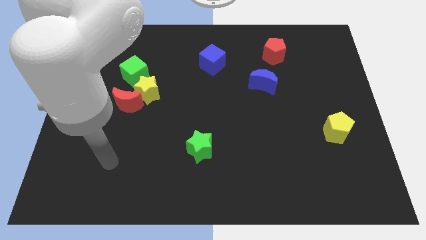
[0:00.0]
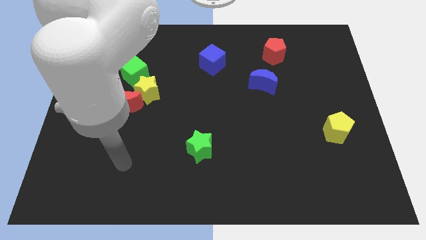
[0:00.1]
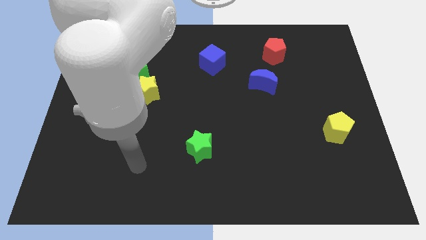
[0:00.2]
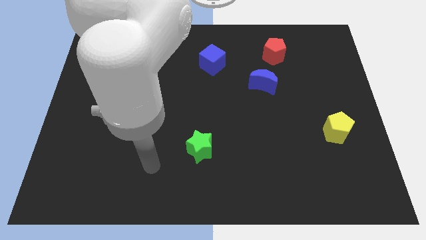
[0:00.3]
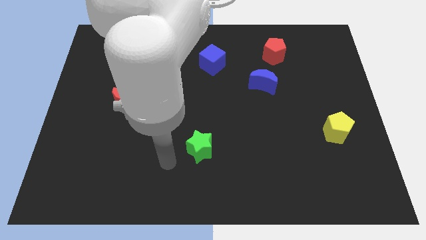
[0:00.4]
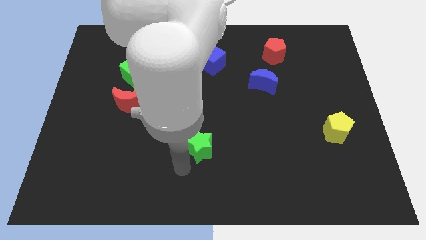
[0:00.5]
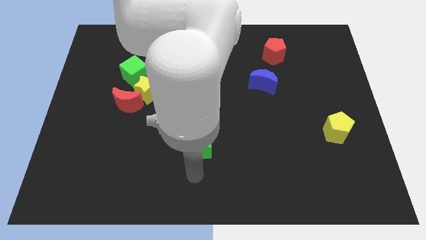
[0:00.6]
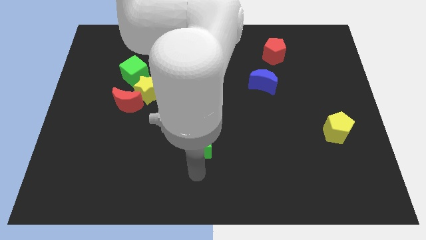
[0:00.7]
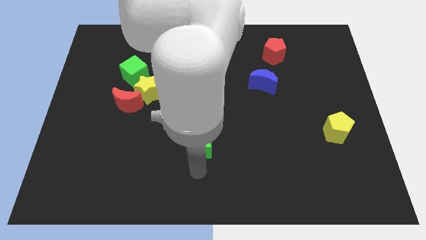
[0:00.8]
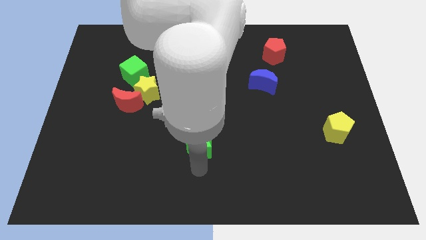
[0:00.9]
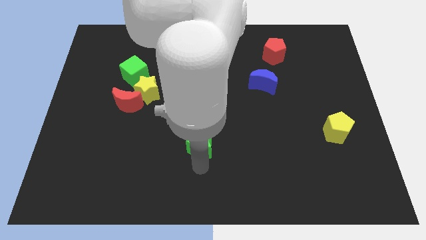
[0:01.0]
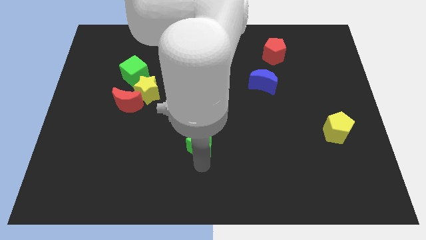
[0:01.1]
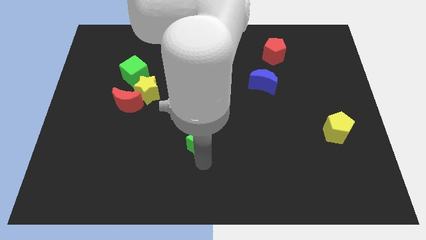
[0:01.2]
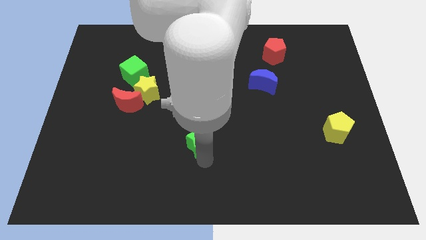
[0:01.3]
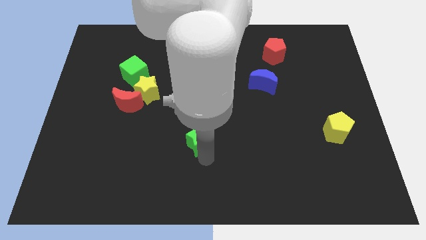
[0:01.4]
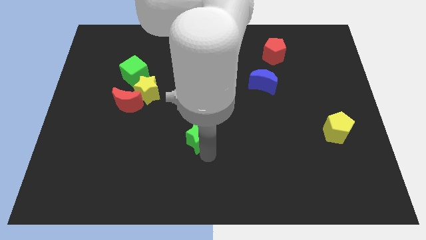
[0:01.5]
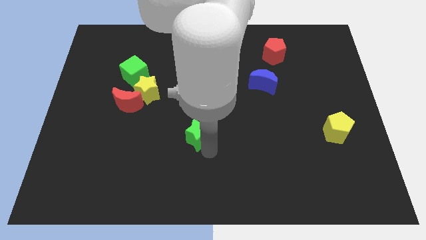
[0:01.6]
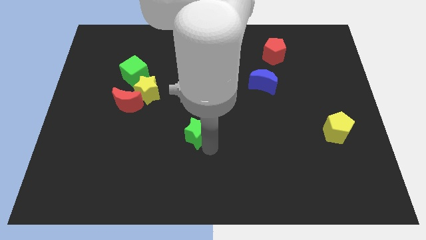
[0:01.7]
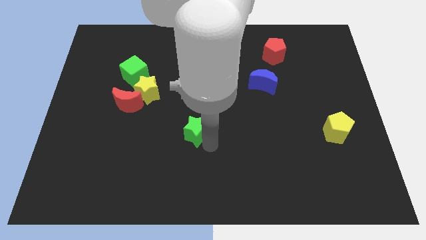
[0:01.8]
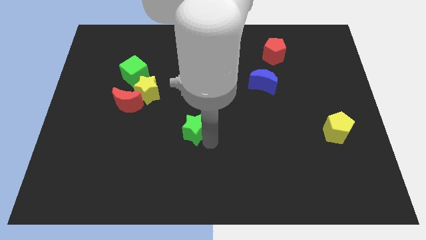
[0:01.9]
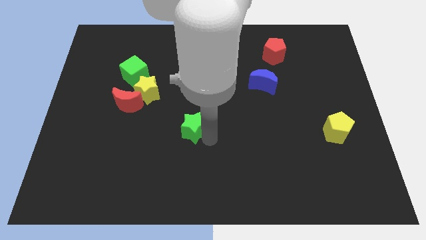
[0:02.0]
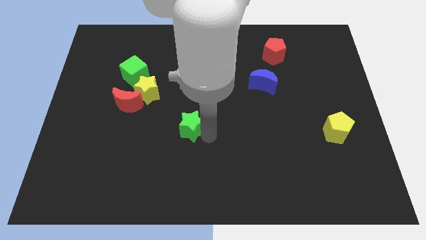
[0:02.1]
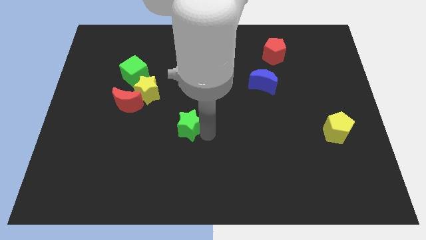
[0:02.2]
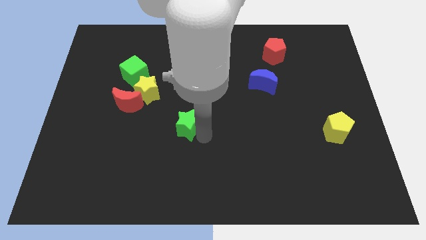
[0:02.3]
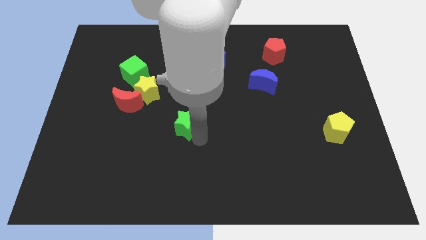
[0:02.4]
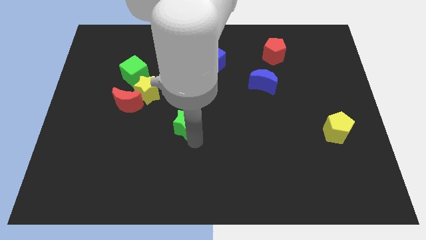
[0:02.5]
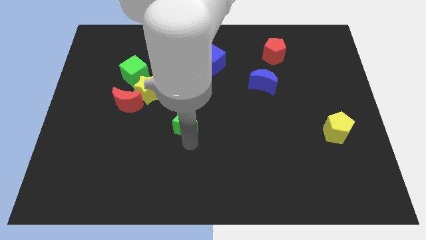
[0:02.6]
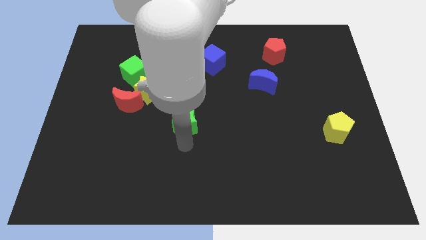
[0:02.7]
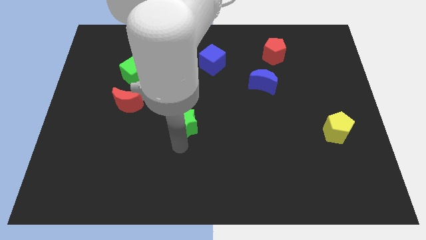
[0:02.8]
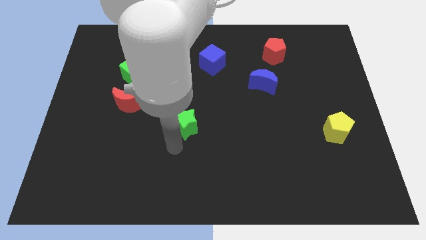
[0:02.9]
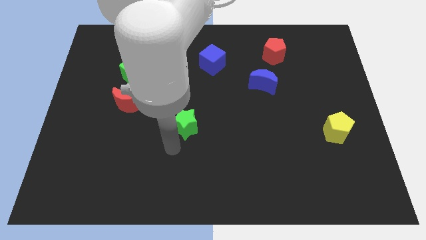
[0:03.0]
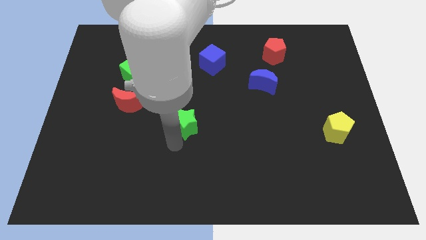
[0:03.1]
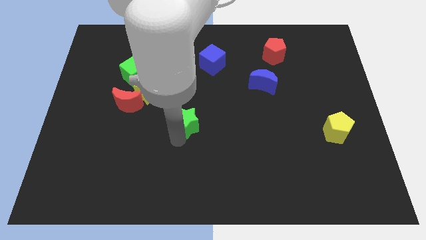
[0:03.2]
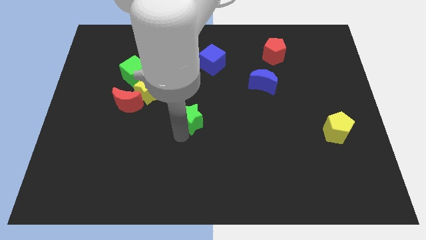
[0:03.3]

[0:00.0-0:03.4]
slide the green star up a little

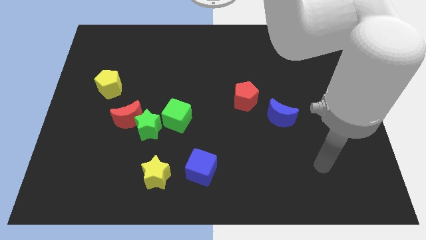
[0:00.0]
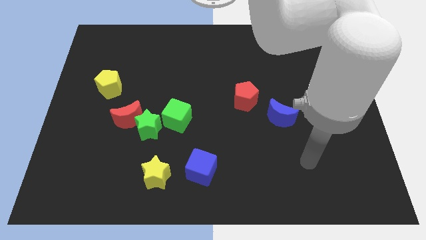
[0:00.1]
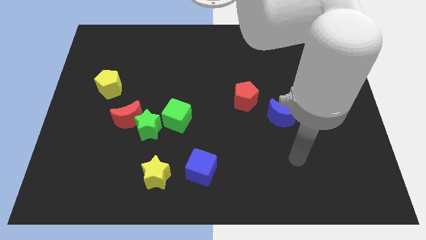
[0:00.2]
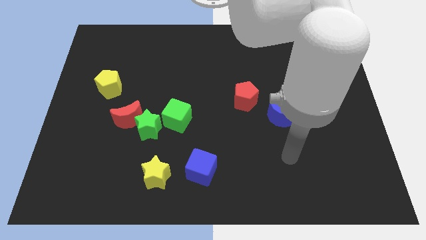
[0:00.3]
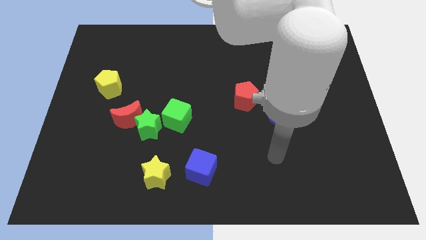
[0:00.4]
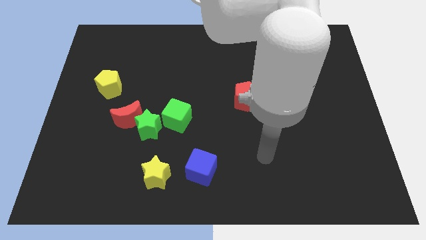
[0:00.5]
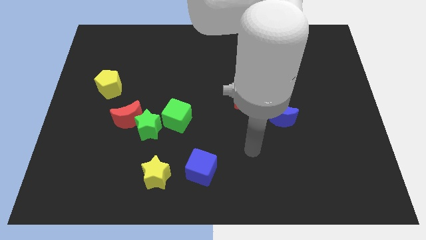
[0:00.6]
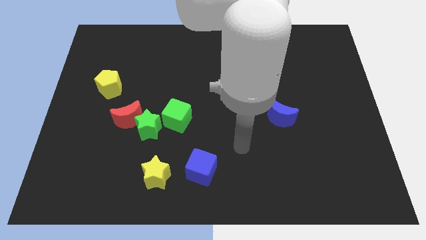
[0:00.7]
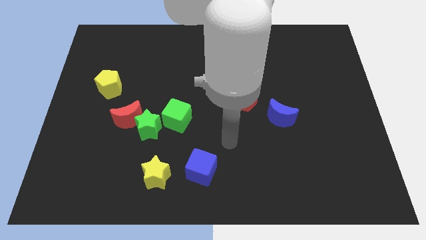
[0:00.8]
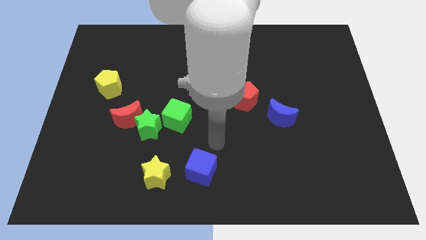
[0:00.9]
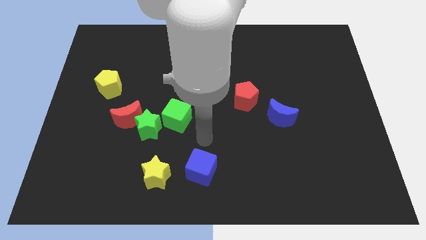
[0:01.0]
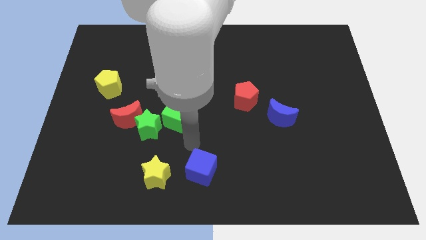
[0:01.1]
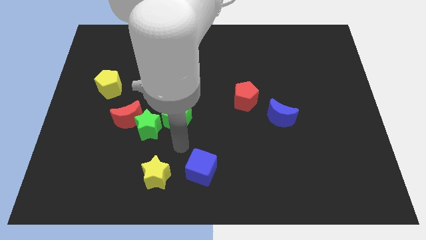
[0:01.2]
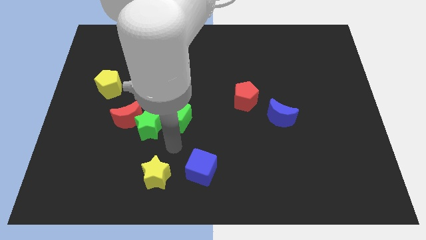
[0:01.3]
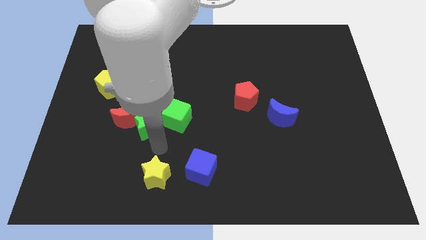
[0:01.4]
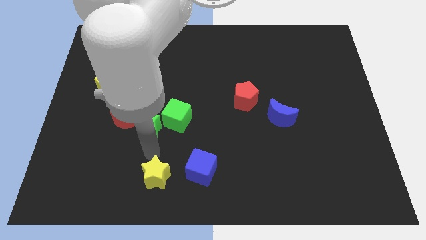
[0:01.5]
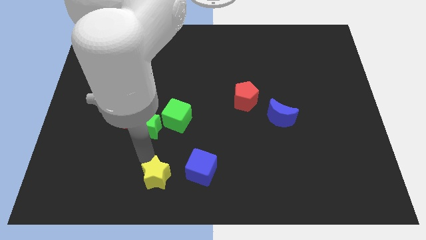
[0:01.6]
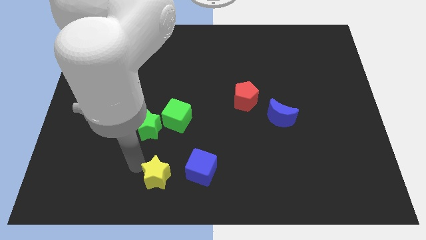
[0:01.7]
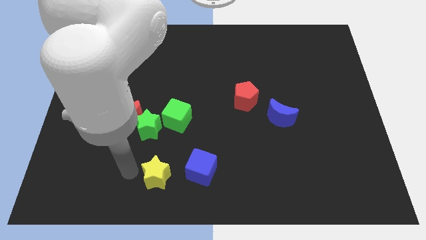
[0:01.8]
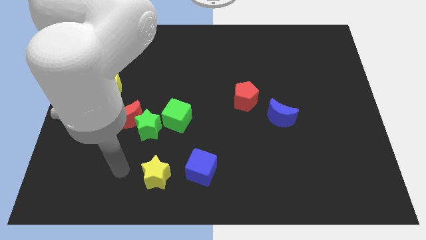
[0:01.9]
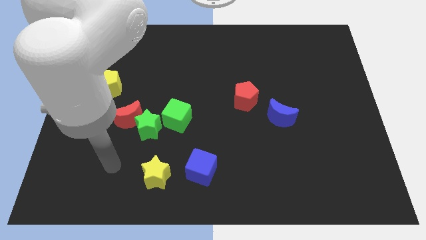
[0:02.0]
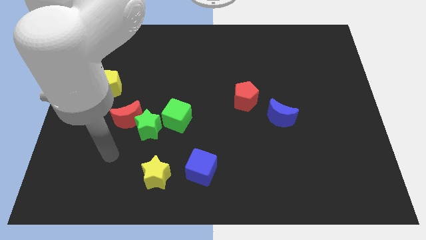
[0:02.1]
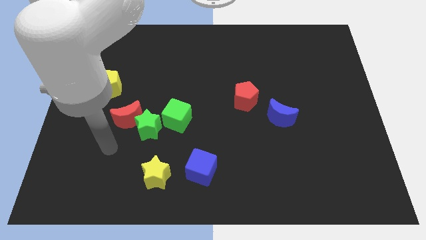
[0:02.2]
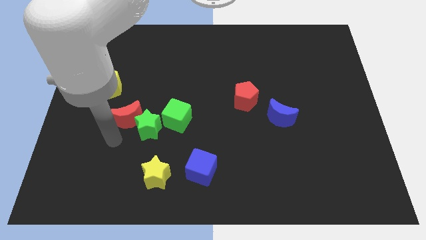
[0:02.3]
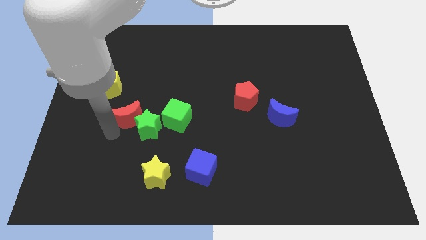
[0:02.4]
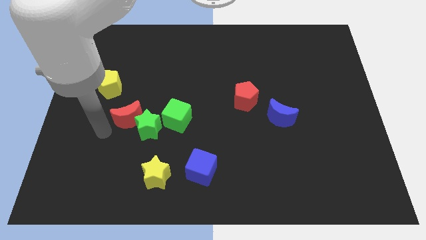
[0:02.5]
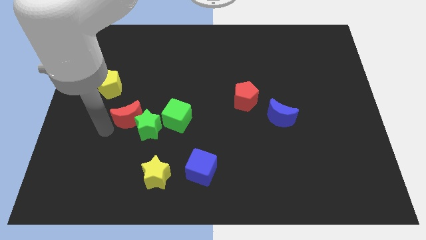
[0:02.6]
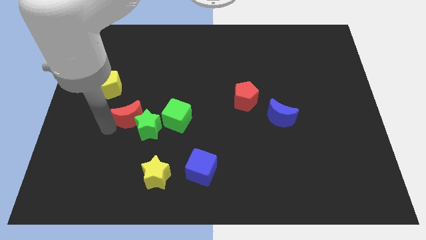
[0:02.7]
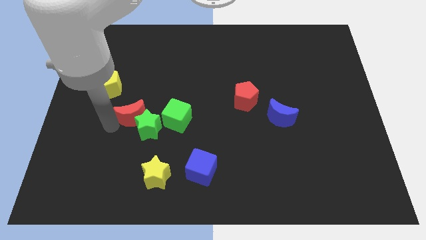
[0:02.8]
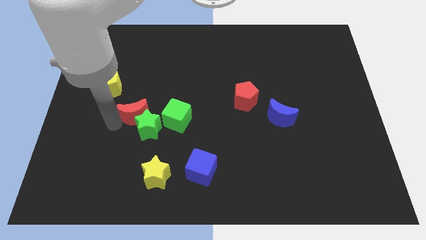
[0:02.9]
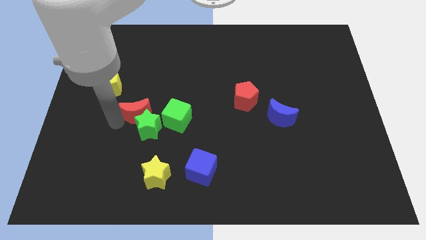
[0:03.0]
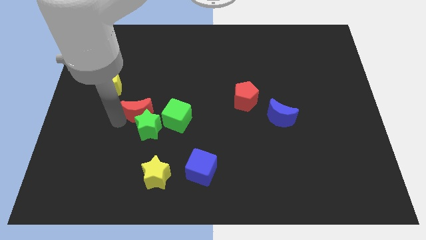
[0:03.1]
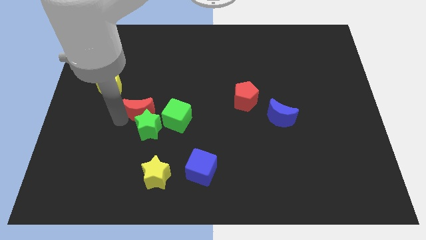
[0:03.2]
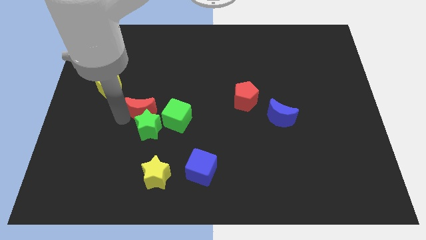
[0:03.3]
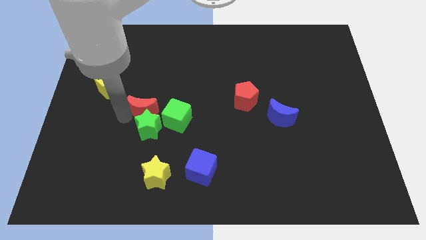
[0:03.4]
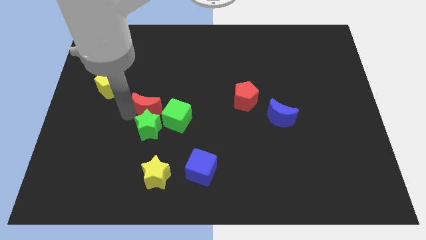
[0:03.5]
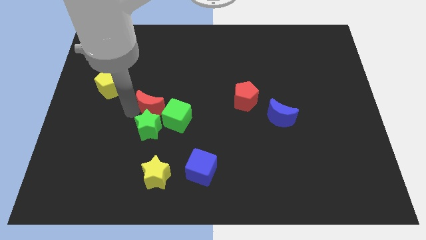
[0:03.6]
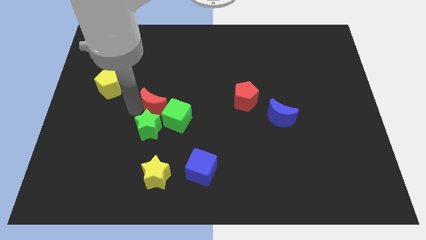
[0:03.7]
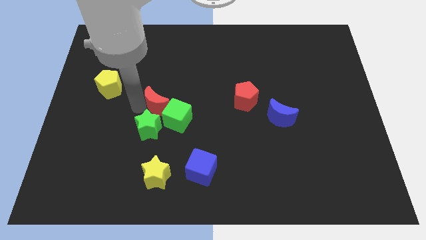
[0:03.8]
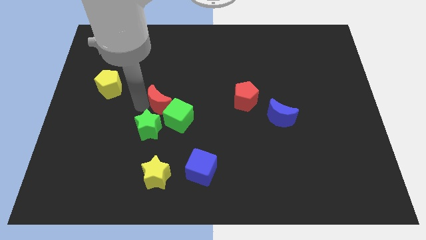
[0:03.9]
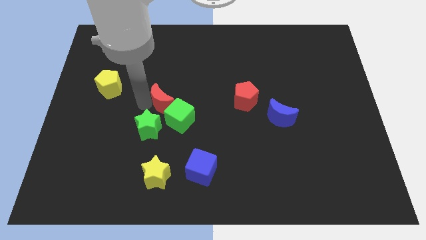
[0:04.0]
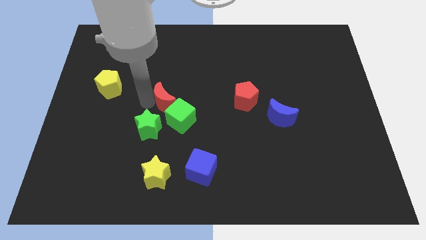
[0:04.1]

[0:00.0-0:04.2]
move the red moon right slightly

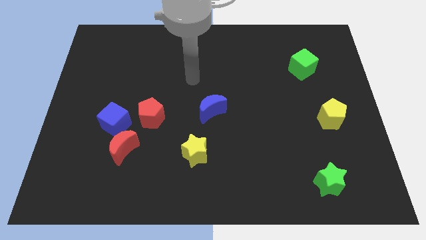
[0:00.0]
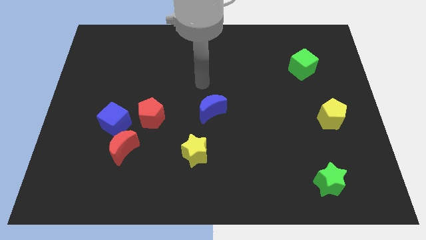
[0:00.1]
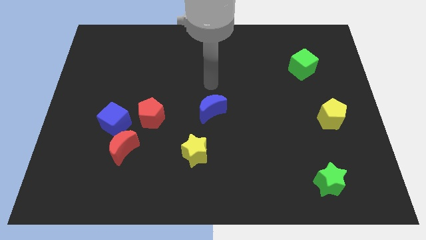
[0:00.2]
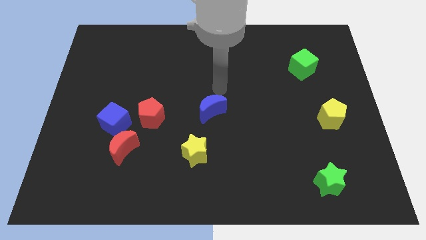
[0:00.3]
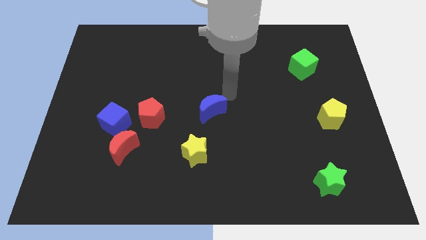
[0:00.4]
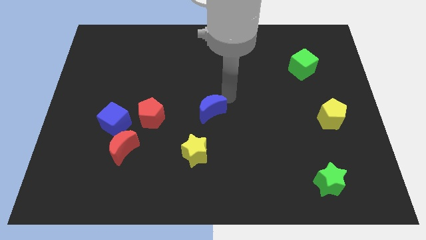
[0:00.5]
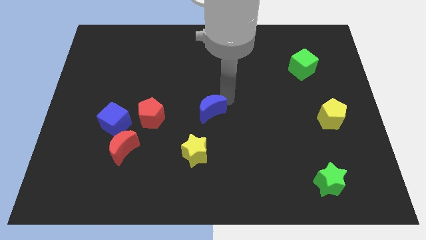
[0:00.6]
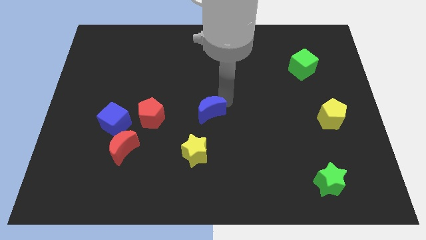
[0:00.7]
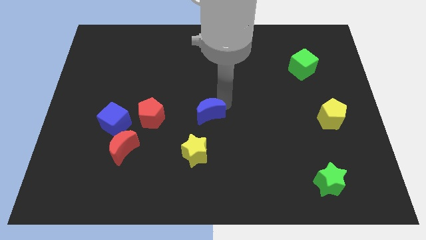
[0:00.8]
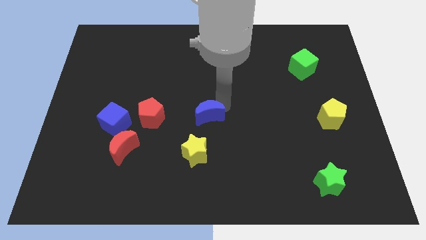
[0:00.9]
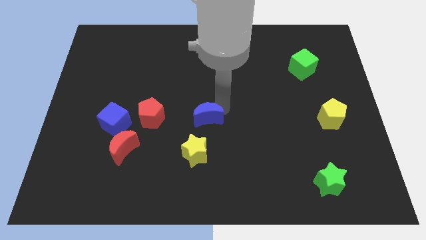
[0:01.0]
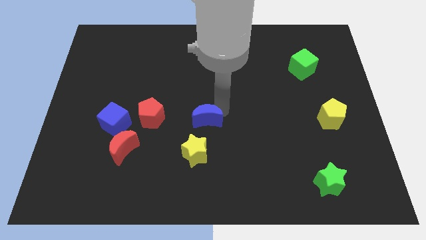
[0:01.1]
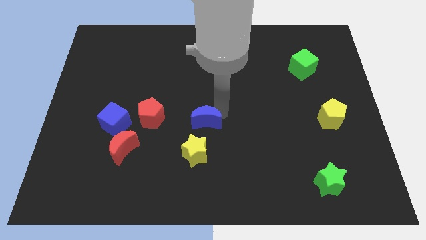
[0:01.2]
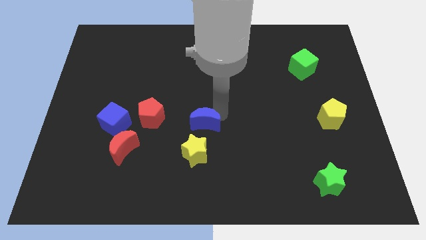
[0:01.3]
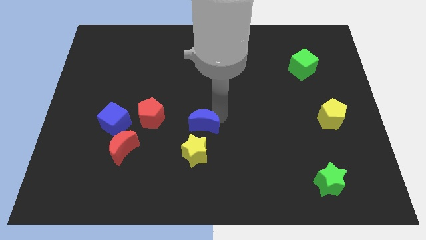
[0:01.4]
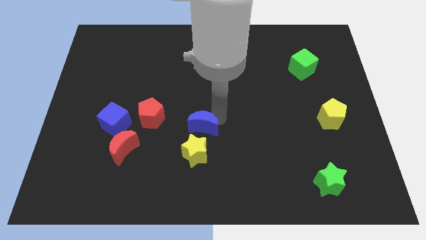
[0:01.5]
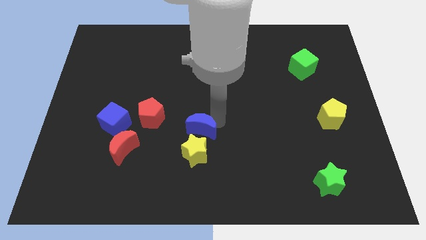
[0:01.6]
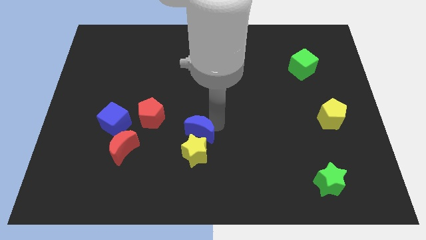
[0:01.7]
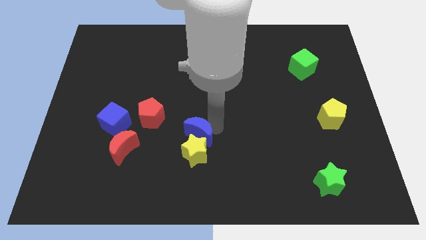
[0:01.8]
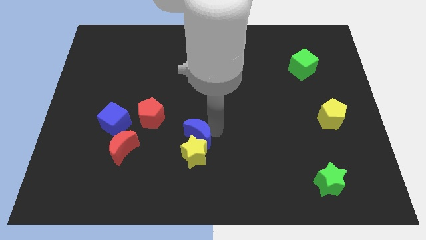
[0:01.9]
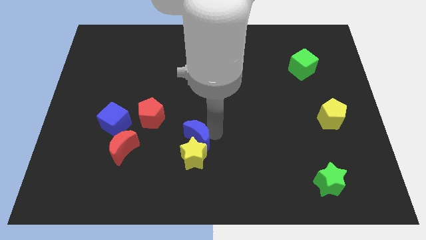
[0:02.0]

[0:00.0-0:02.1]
push the blue moon slightly down and to the left diagonally
